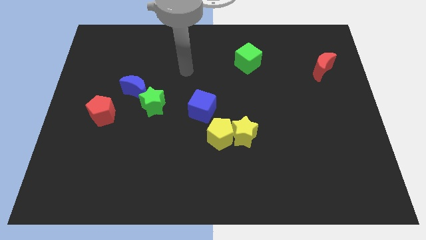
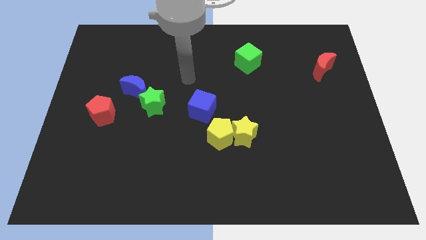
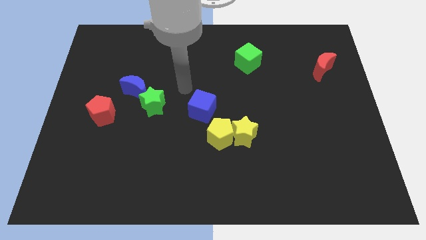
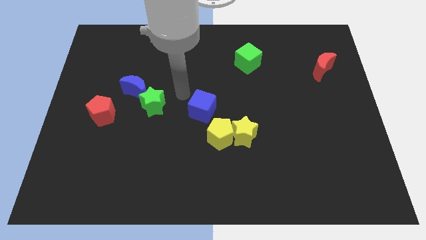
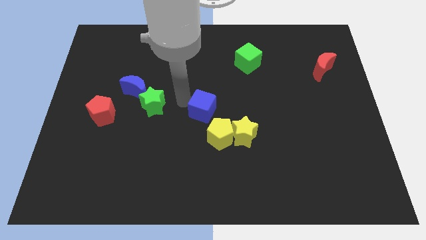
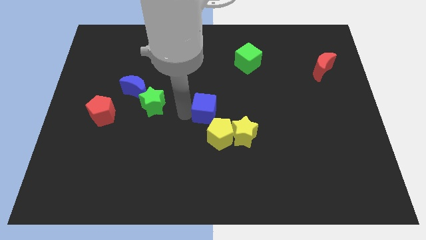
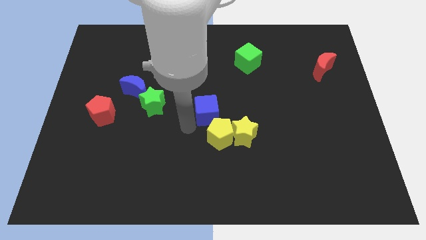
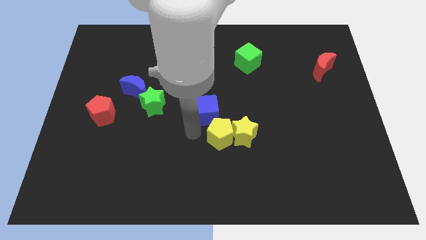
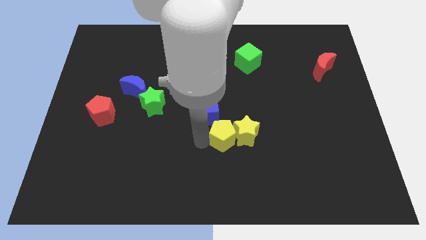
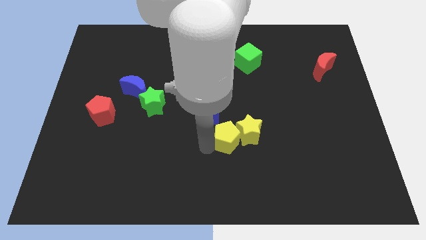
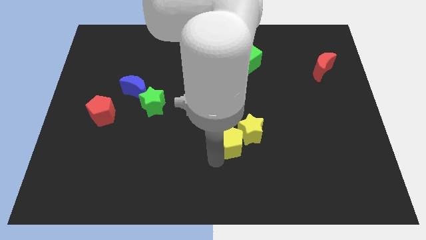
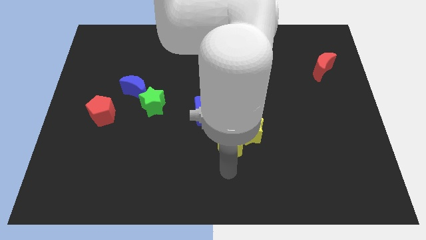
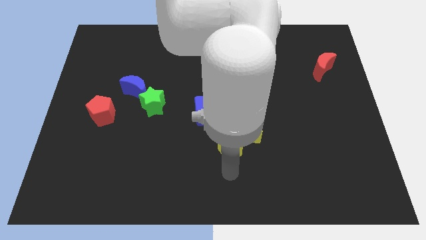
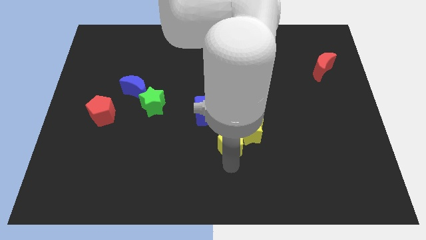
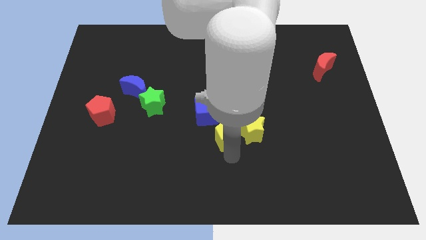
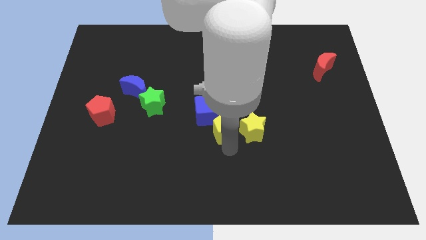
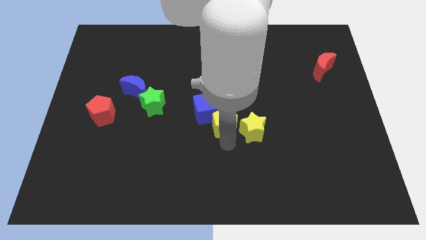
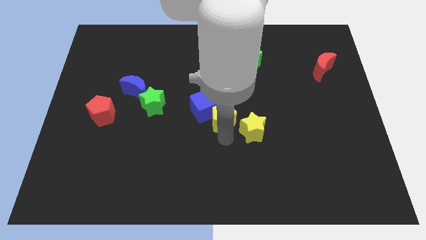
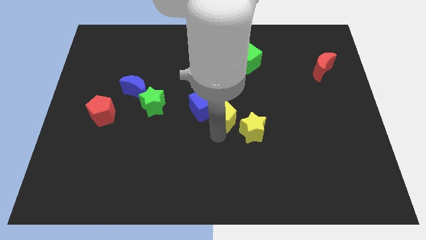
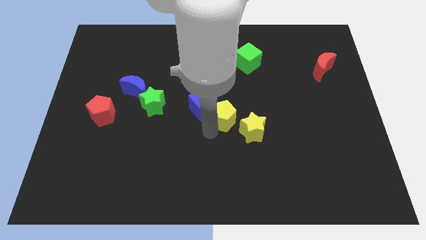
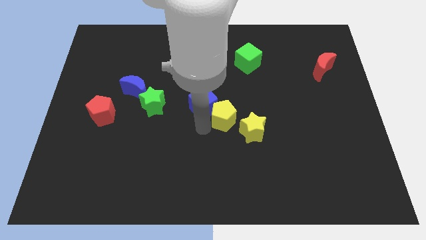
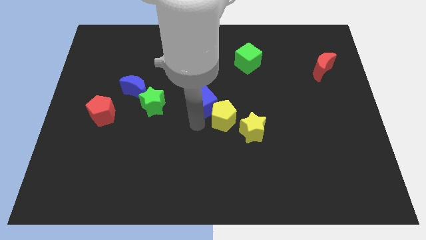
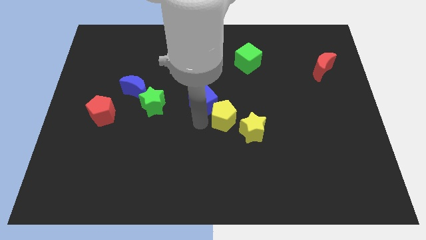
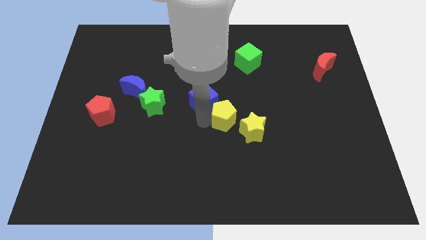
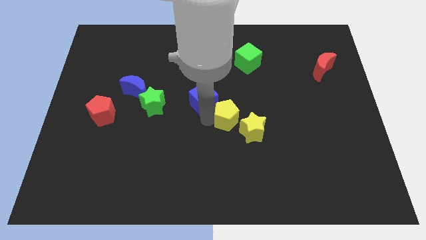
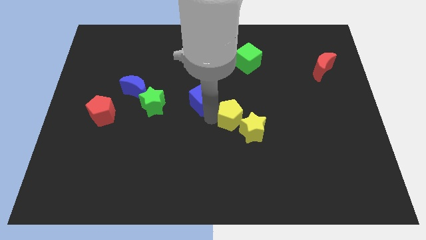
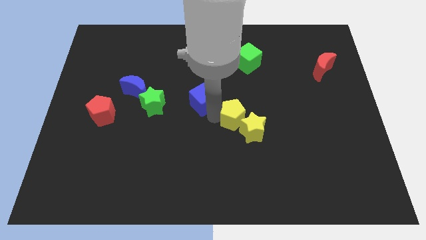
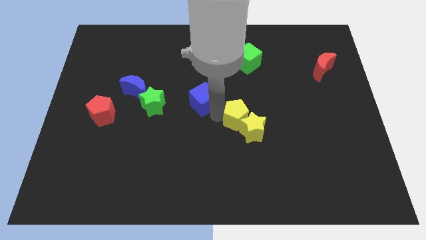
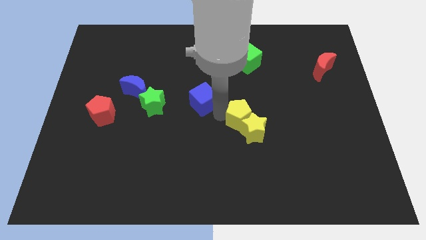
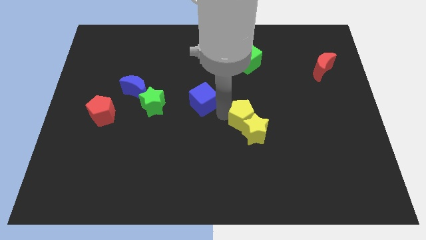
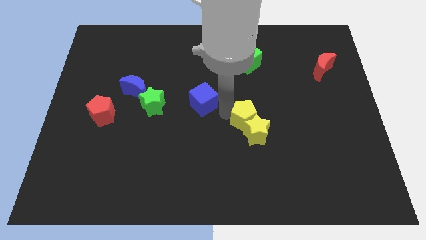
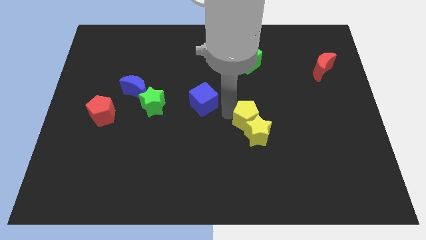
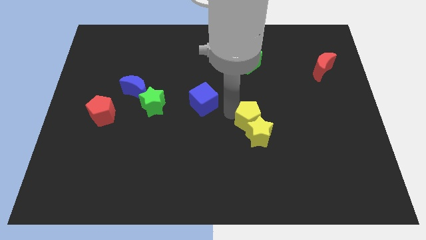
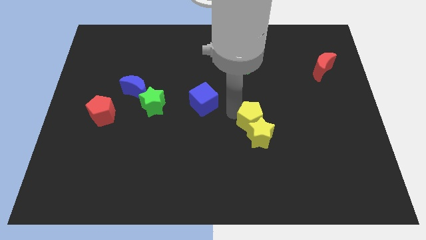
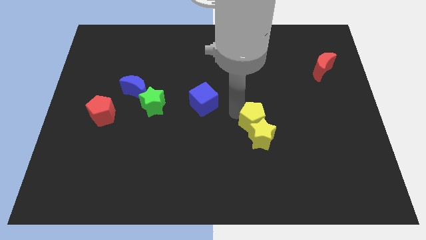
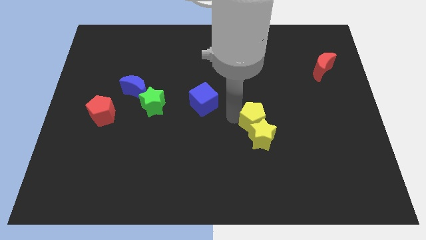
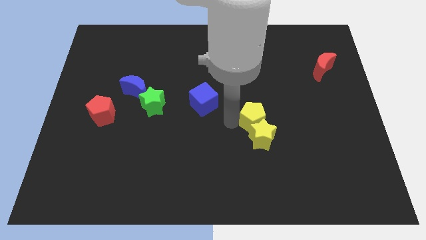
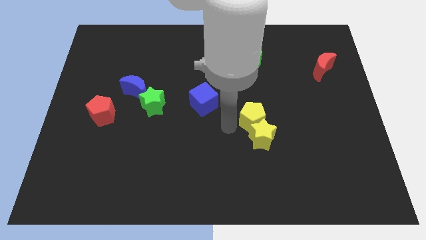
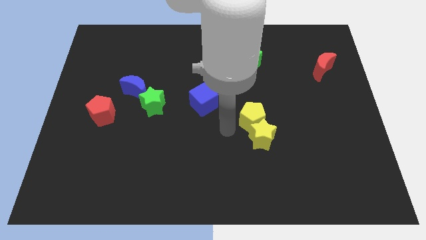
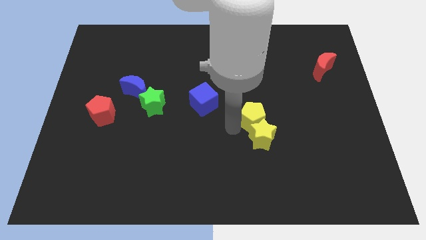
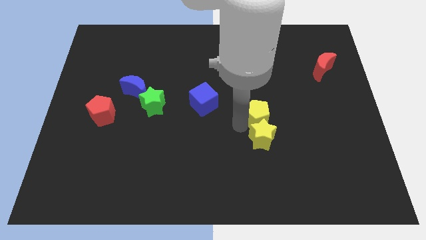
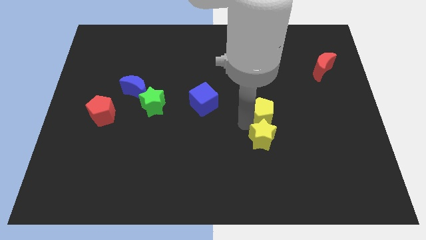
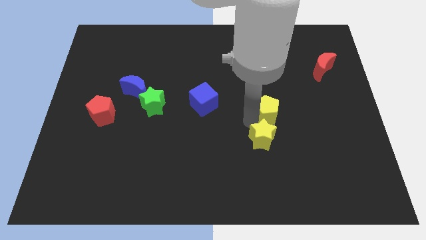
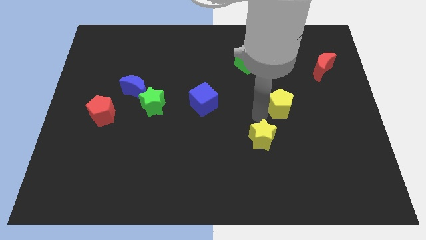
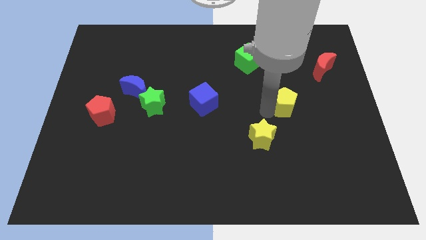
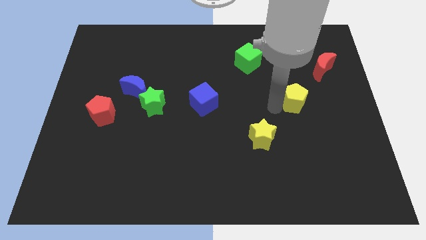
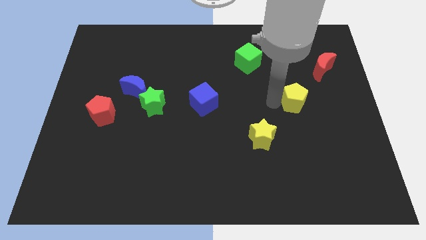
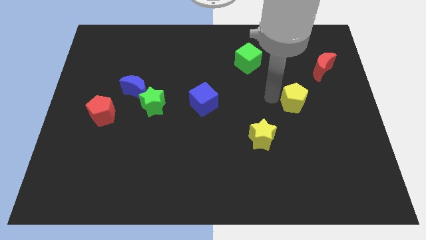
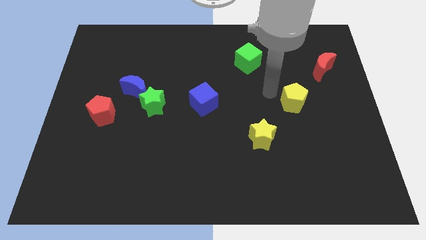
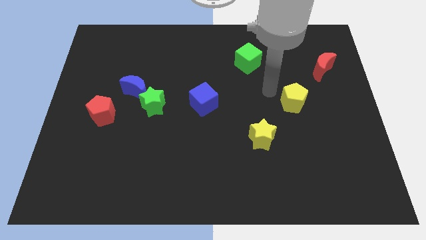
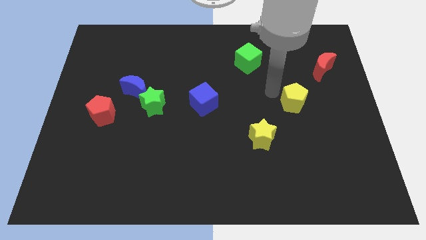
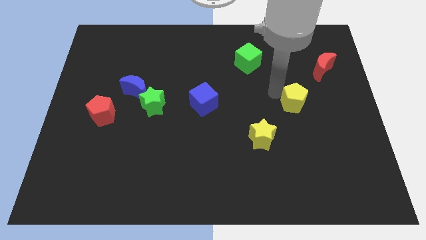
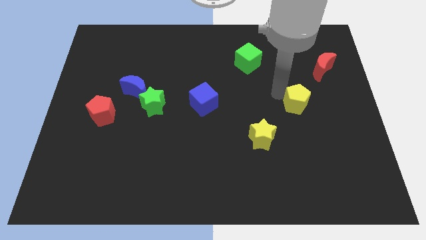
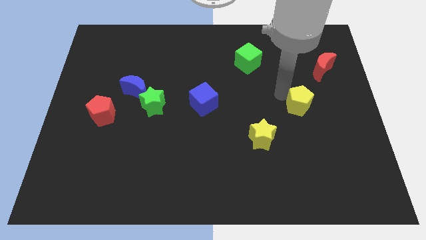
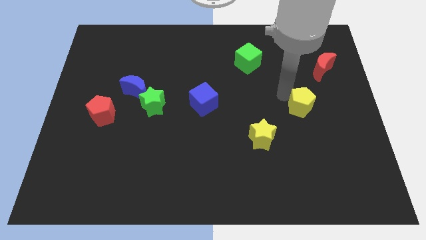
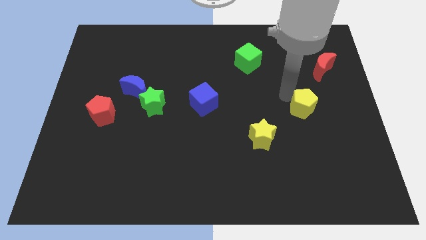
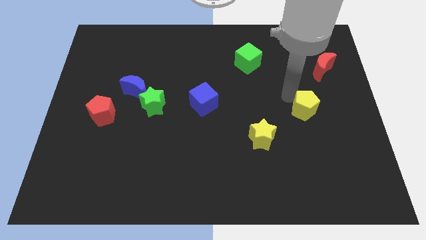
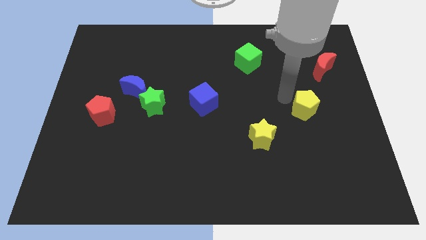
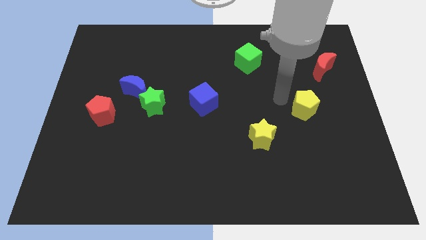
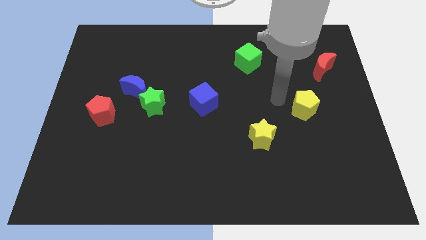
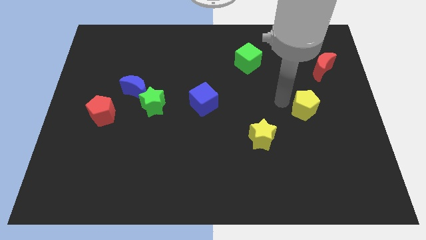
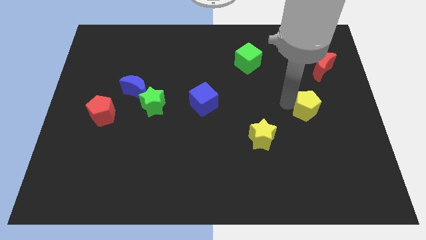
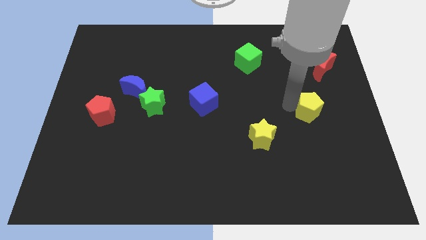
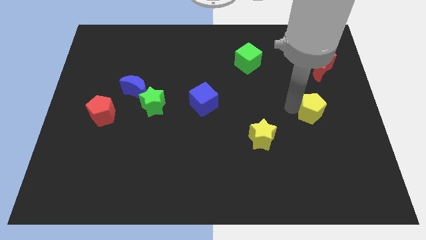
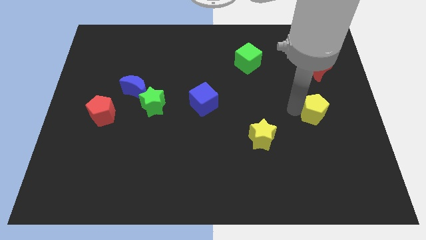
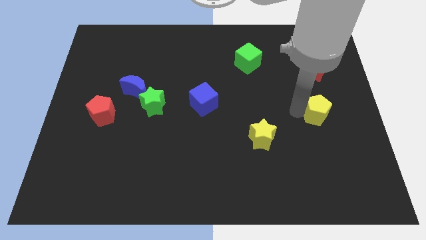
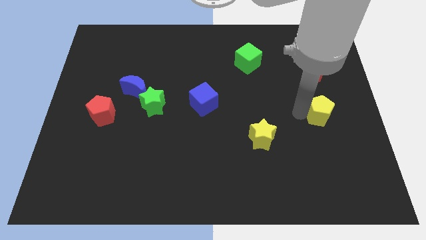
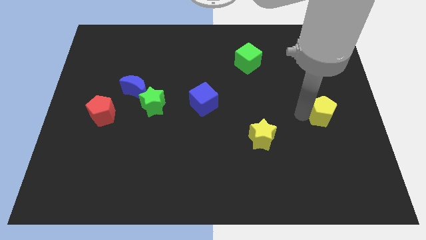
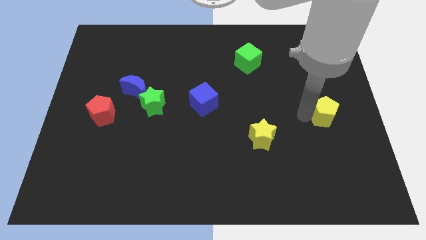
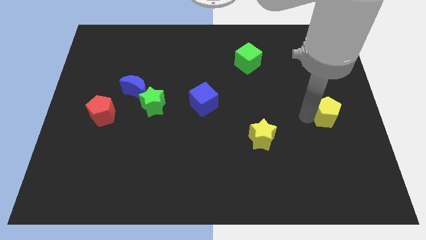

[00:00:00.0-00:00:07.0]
slide the yellow pentagon to the right side
